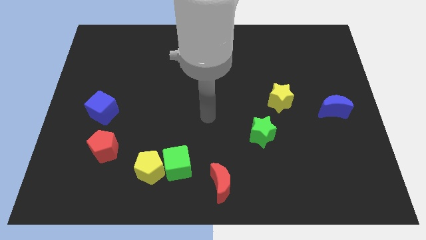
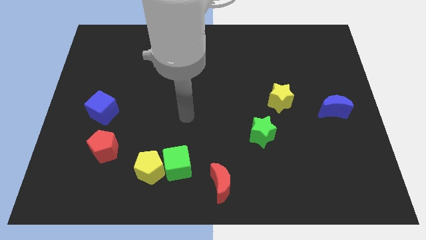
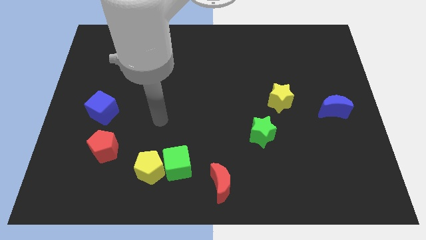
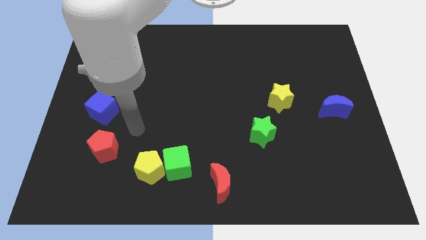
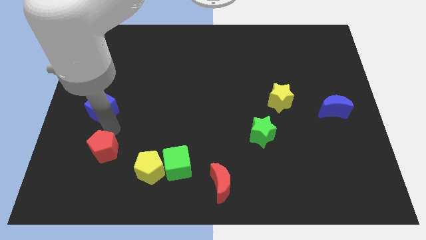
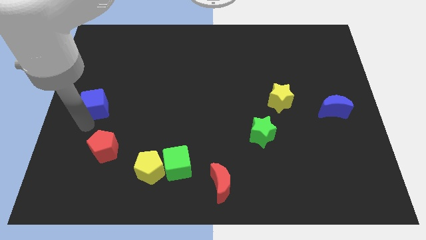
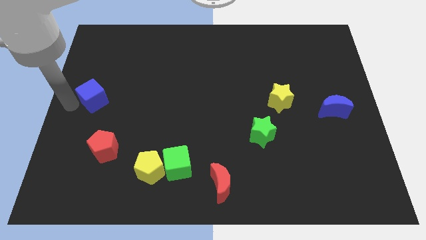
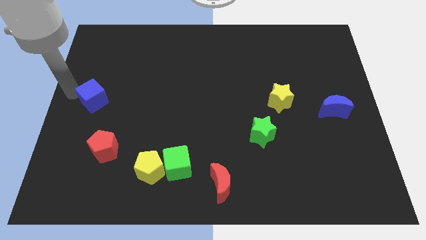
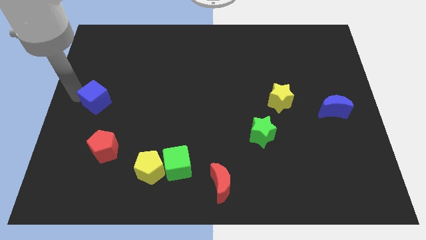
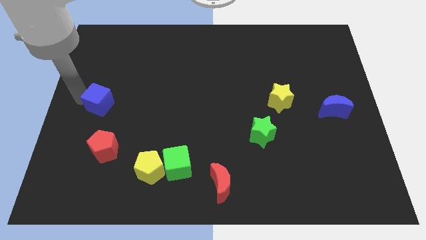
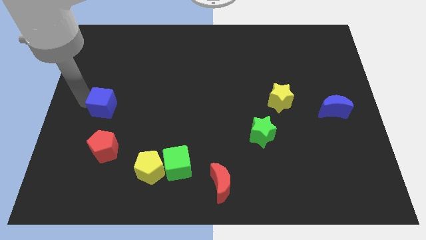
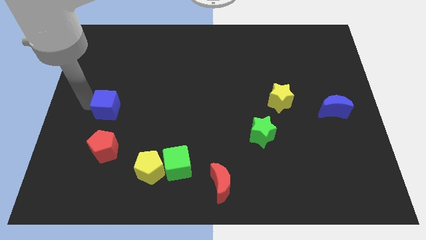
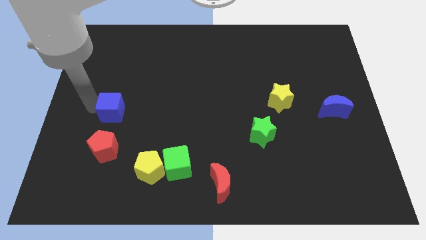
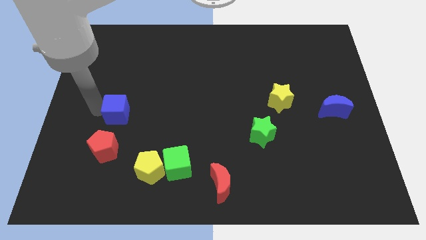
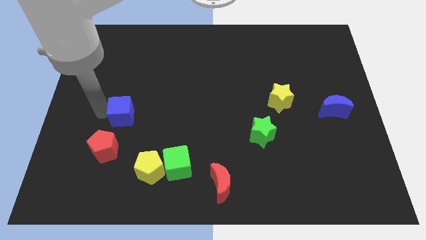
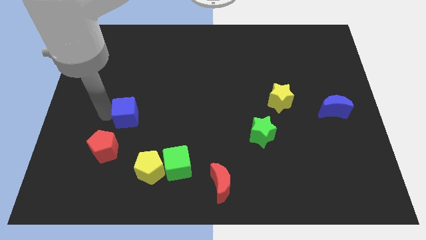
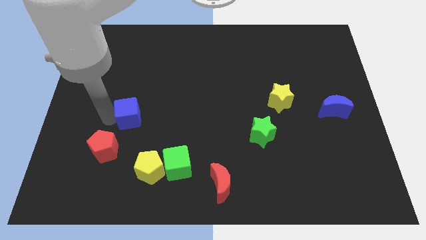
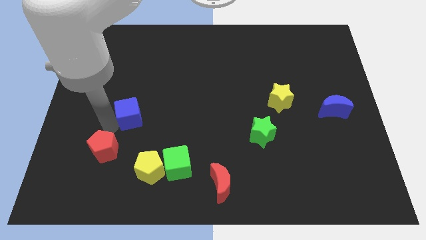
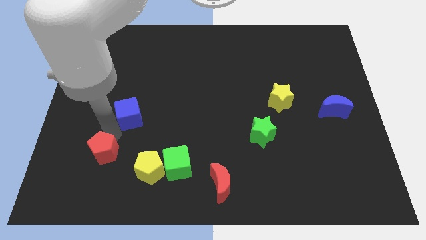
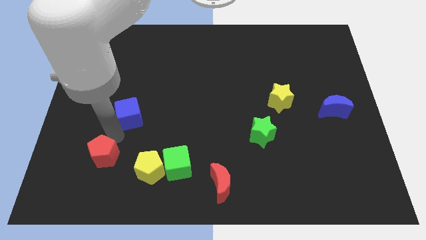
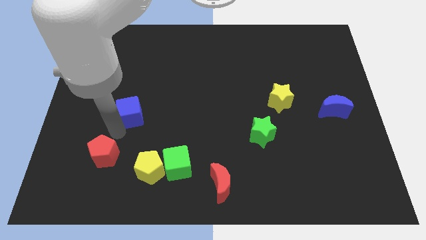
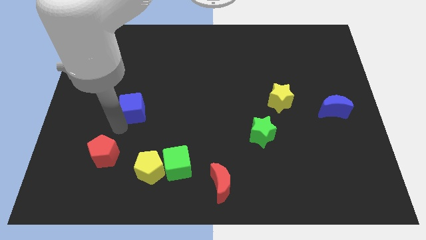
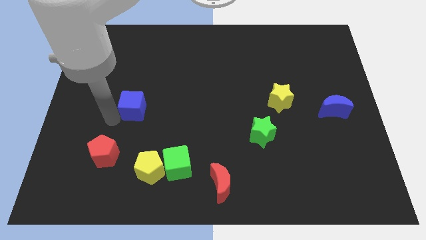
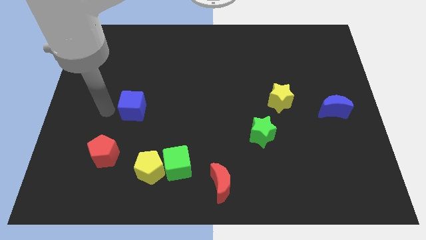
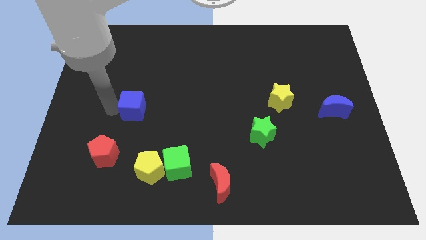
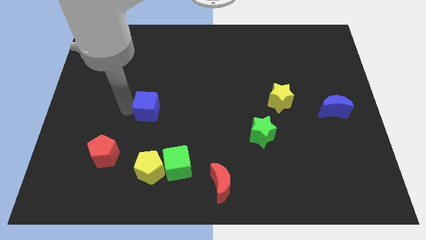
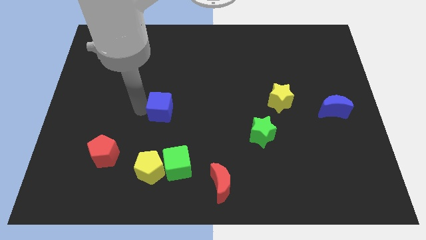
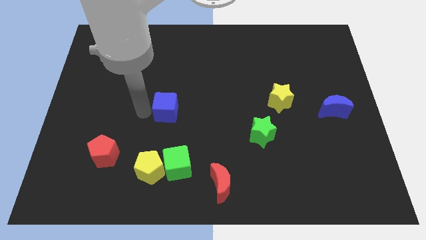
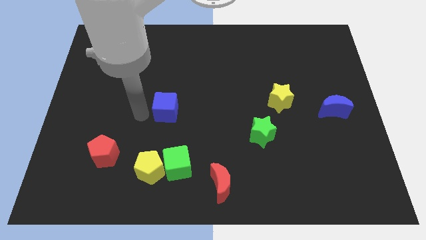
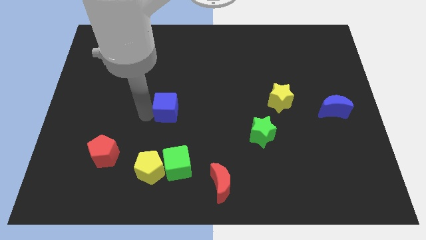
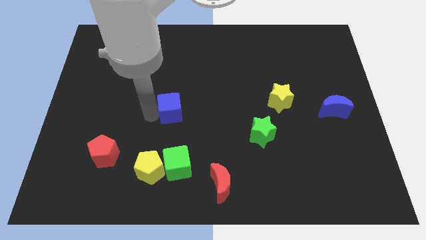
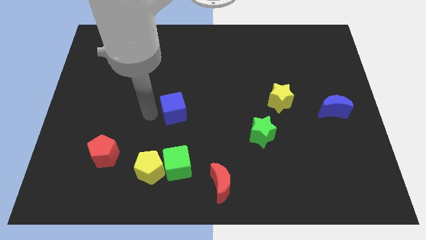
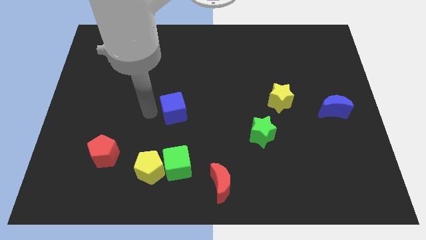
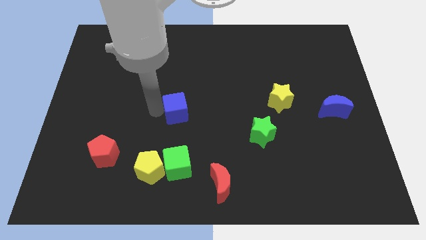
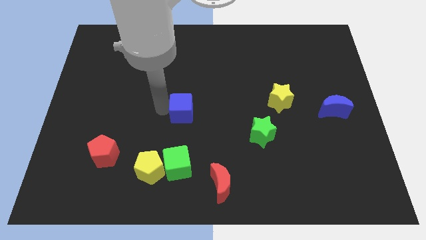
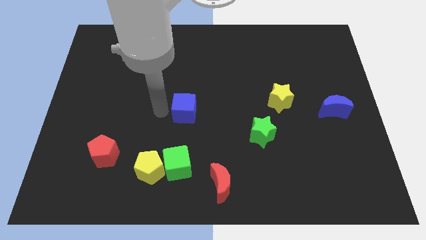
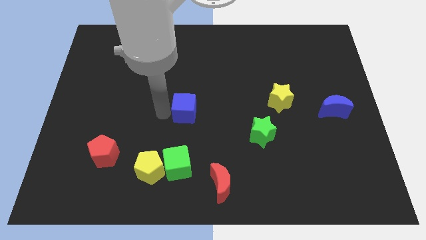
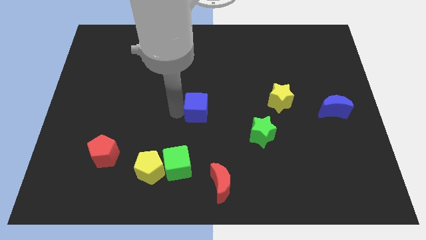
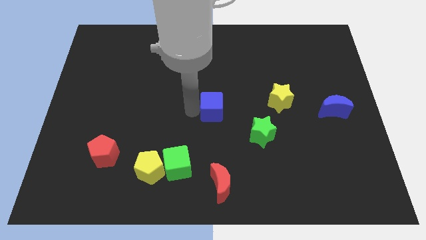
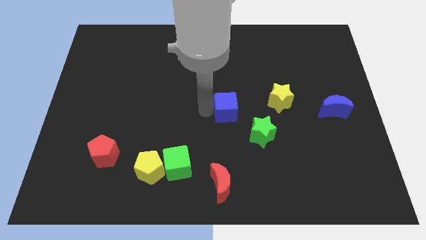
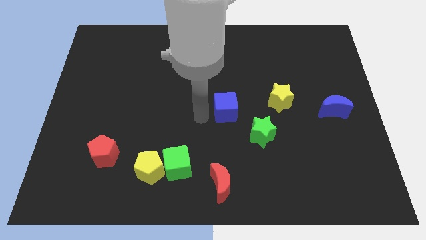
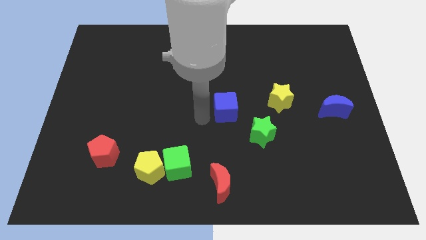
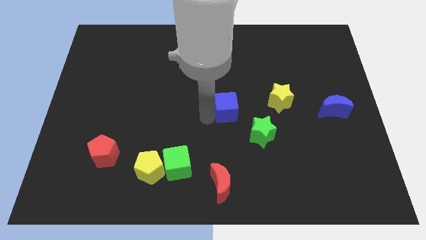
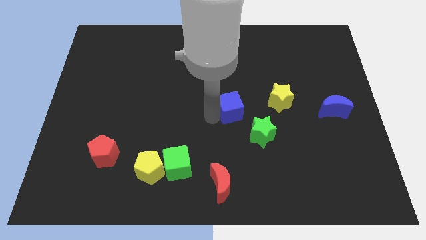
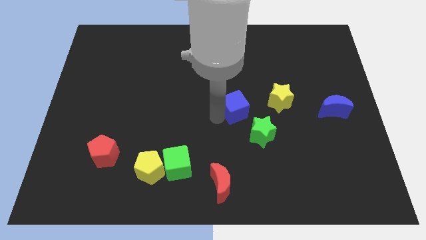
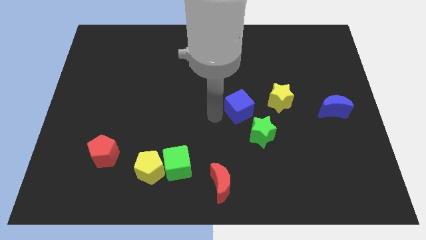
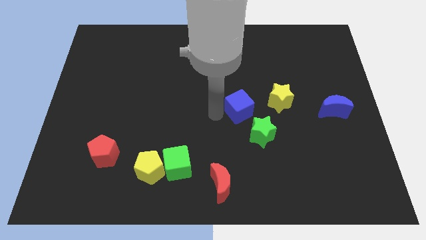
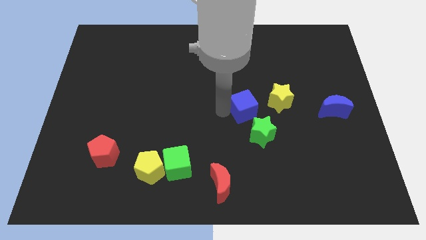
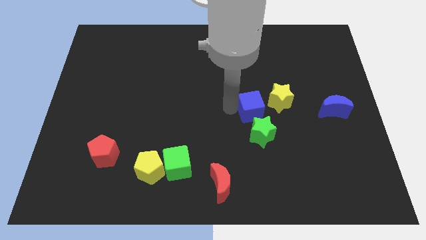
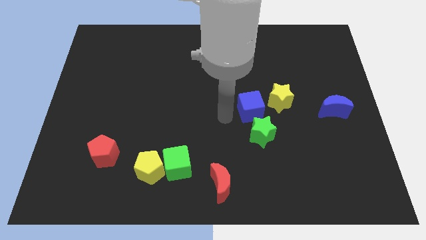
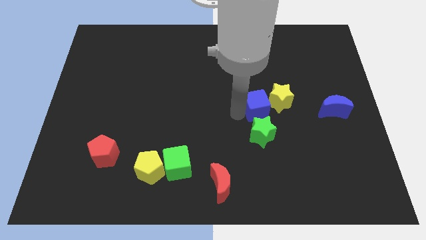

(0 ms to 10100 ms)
move the blue cube to the yellow star

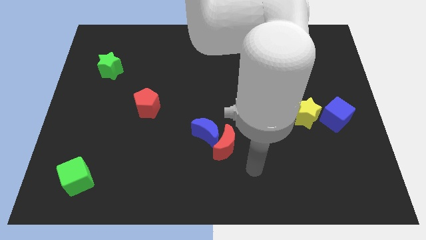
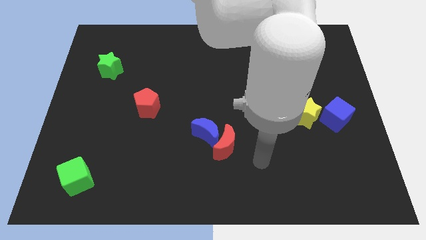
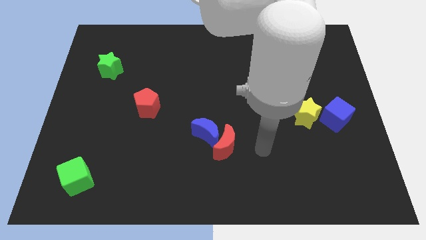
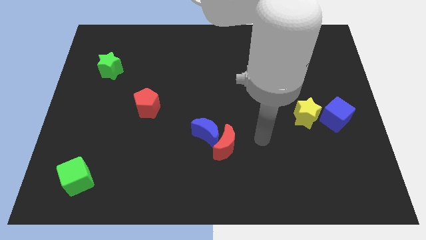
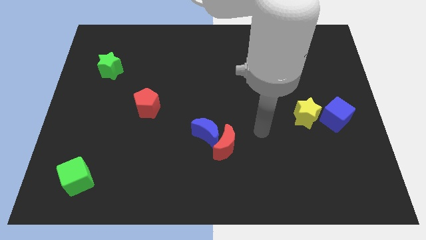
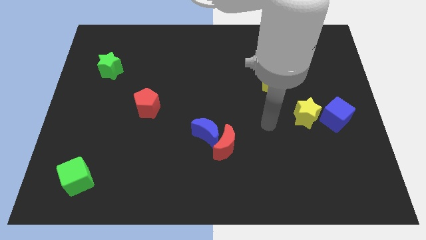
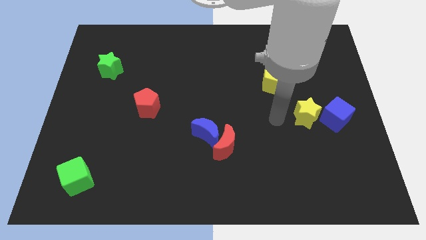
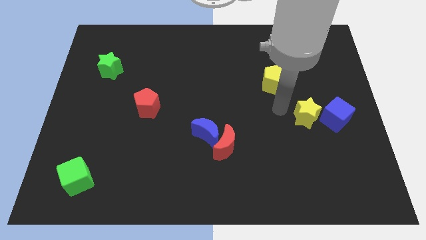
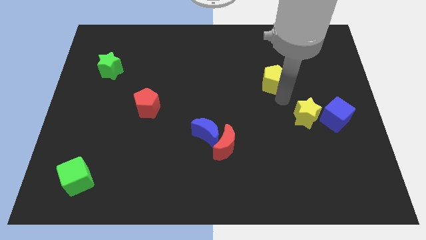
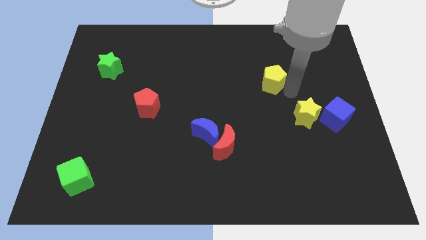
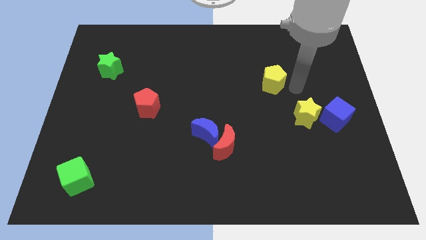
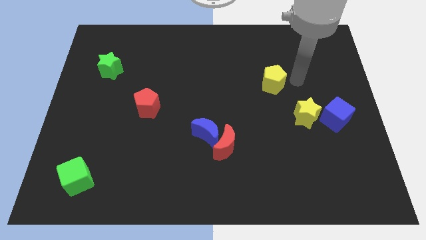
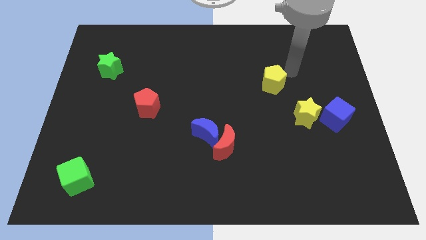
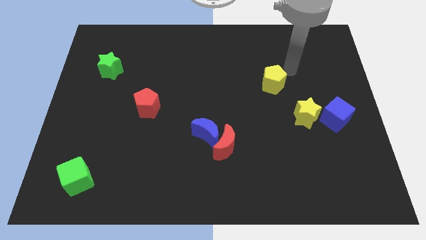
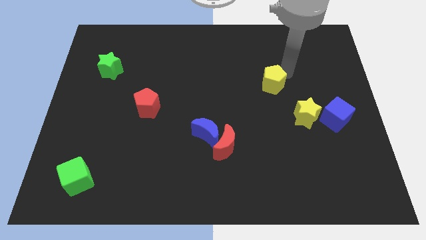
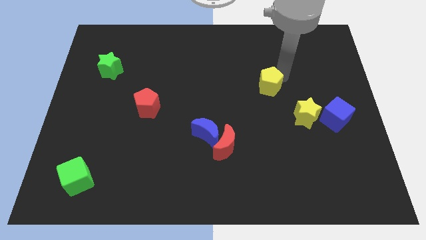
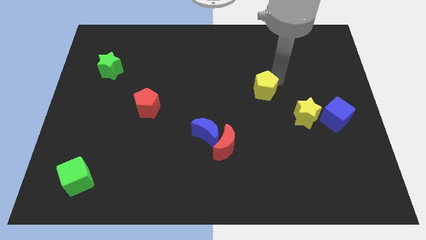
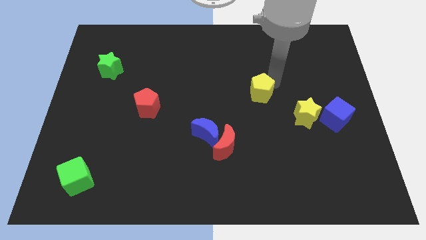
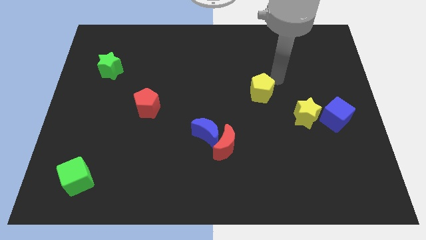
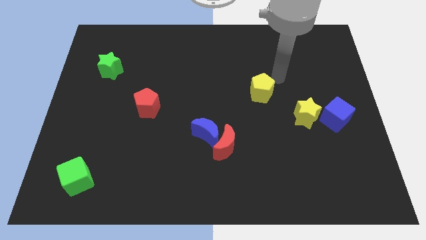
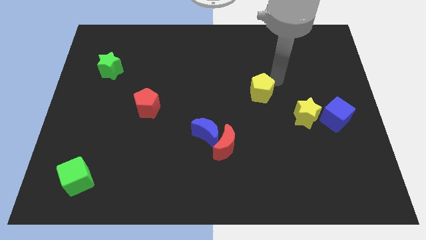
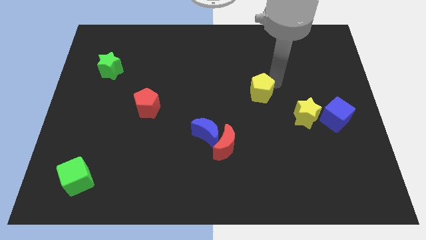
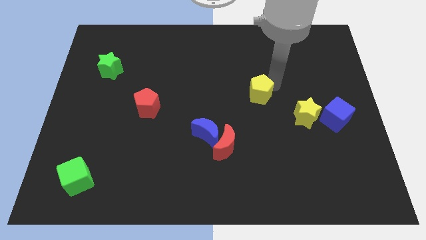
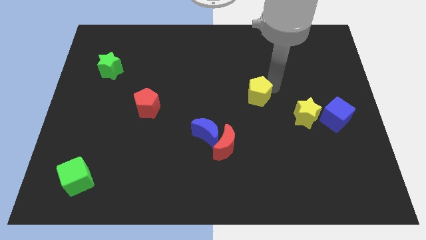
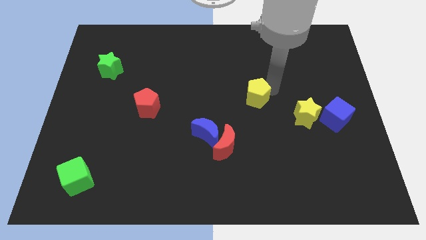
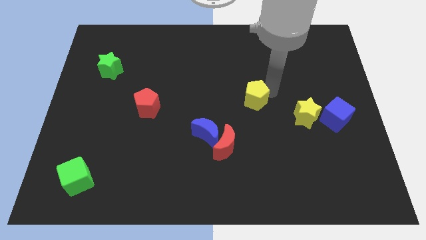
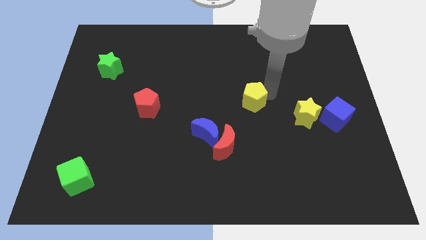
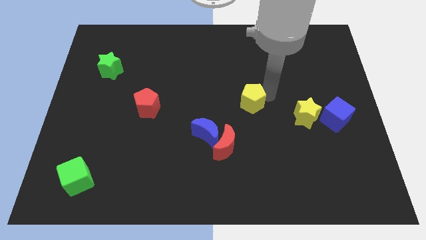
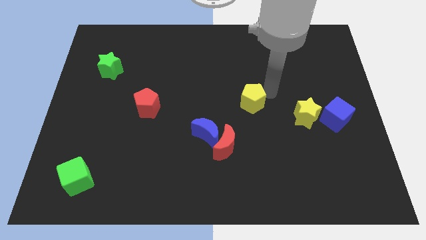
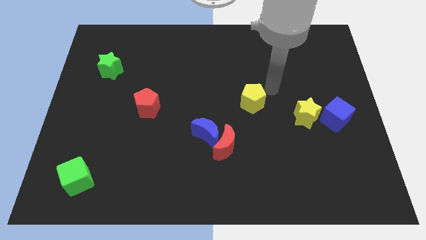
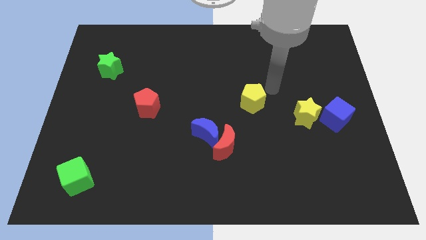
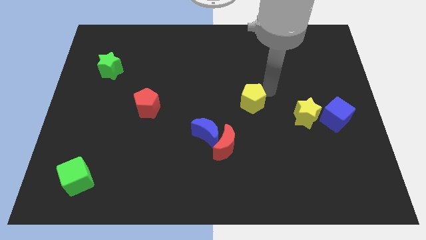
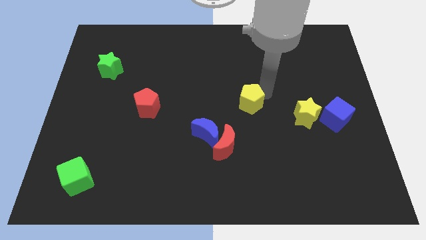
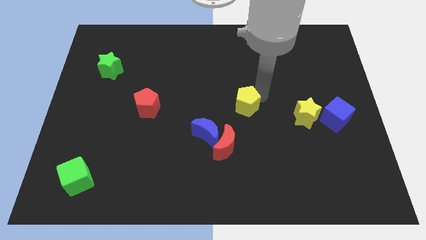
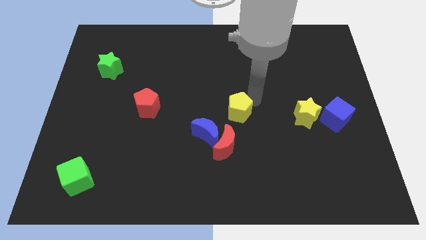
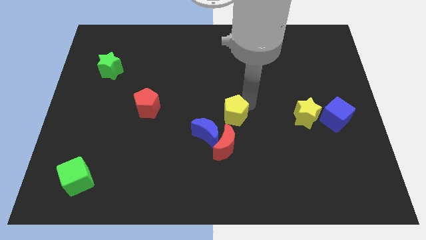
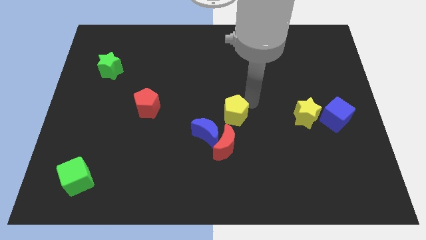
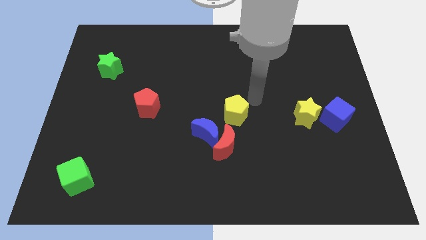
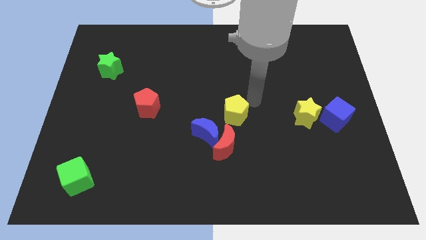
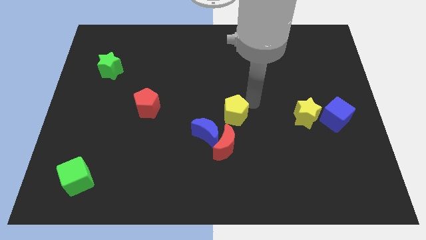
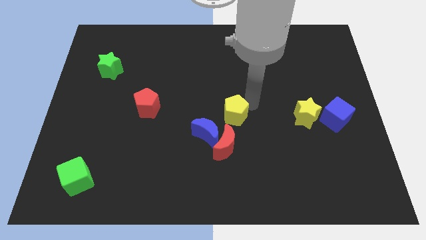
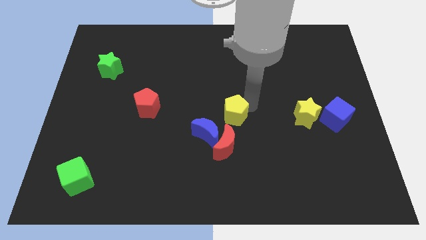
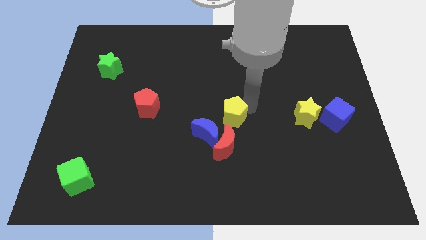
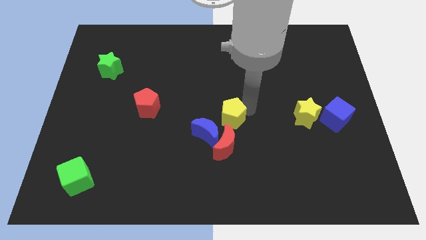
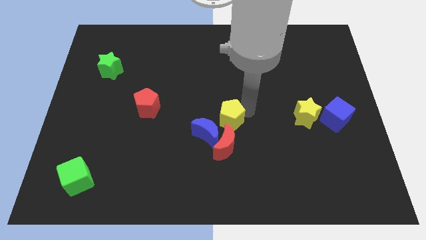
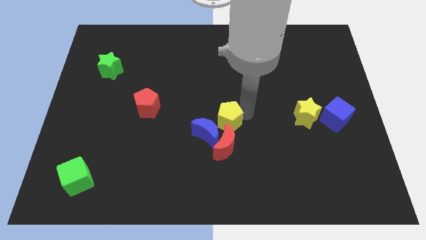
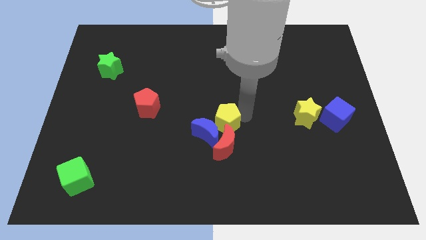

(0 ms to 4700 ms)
put the yellow pentagon towards the blue moon
